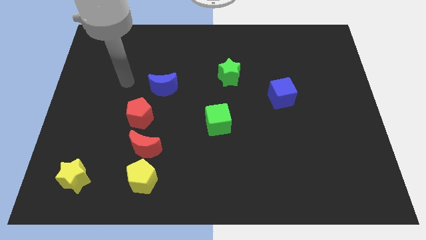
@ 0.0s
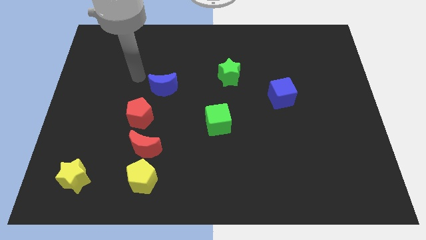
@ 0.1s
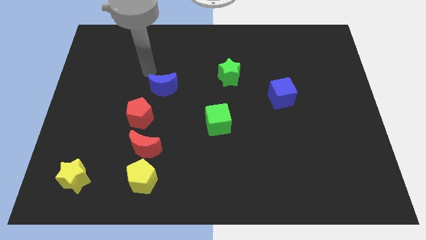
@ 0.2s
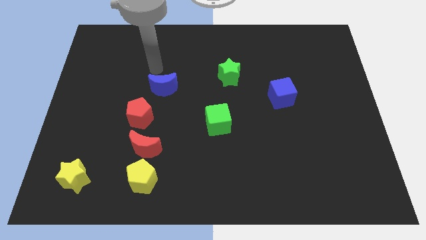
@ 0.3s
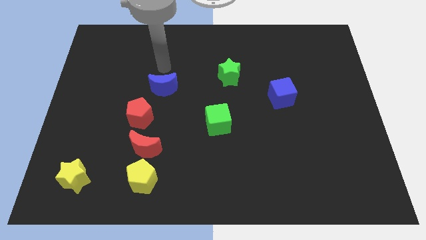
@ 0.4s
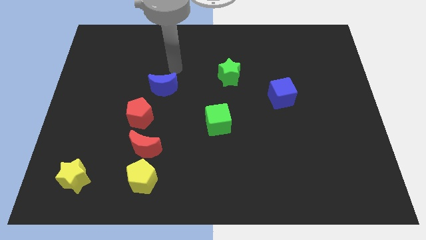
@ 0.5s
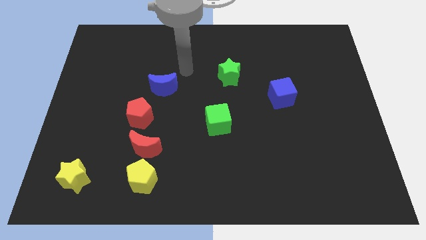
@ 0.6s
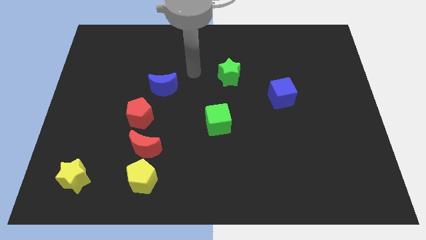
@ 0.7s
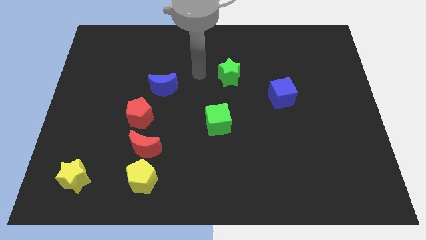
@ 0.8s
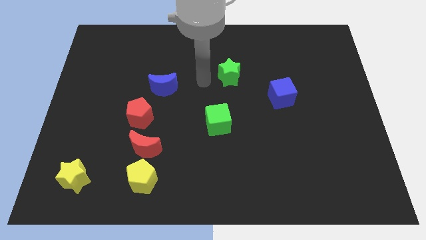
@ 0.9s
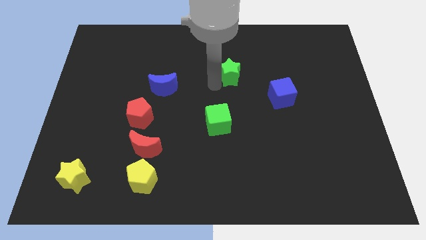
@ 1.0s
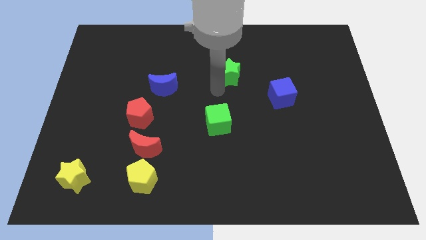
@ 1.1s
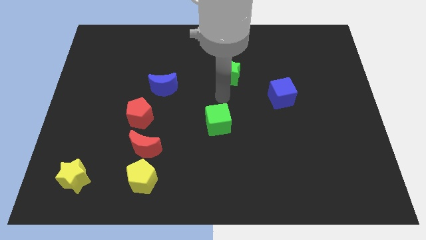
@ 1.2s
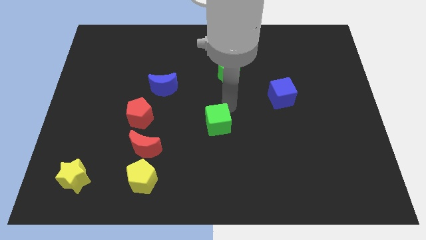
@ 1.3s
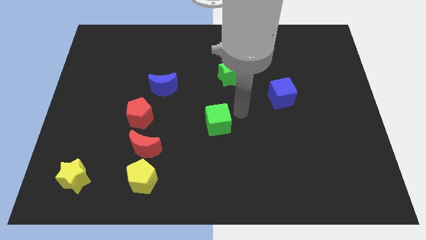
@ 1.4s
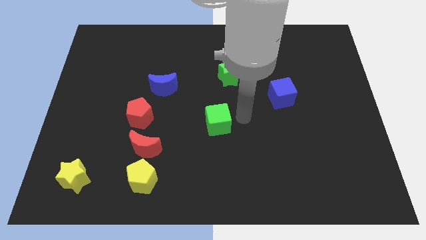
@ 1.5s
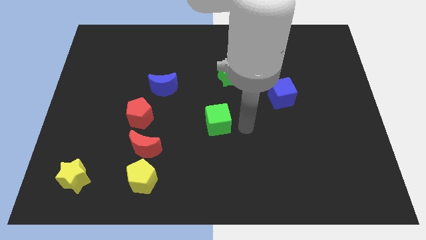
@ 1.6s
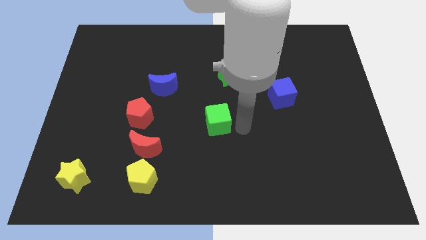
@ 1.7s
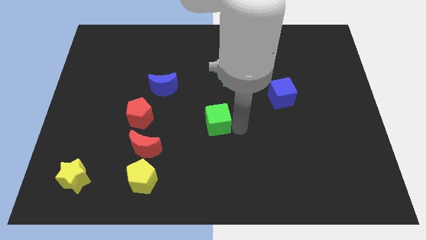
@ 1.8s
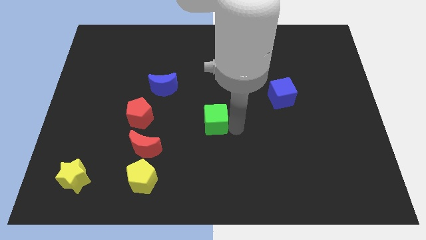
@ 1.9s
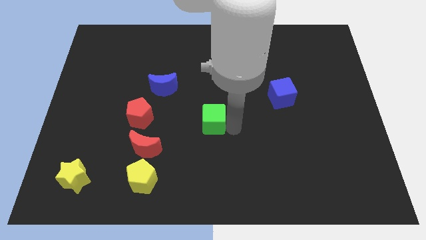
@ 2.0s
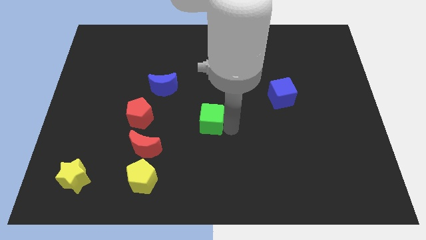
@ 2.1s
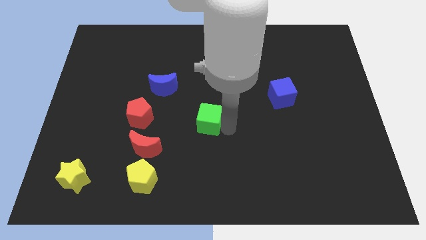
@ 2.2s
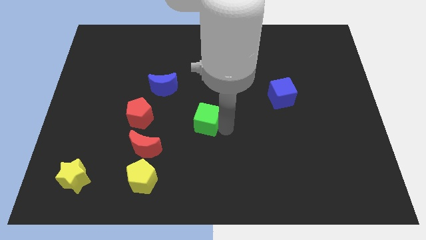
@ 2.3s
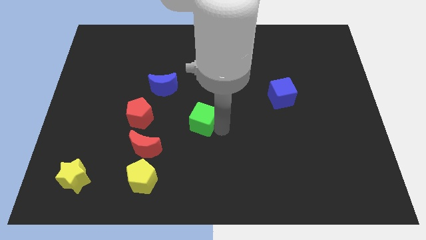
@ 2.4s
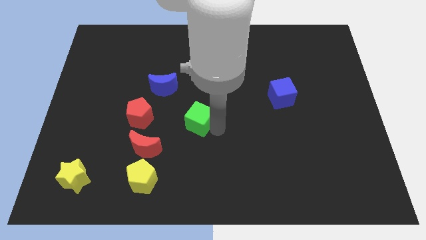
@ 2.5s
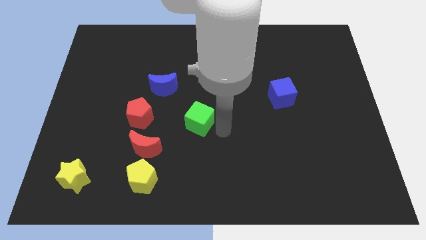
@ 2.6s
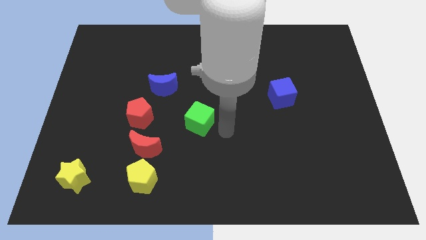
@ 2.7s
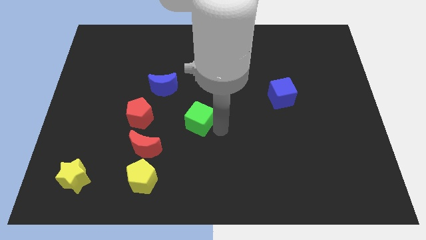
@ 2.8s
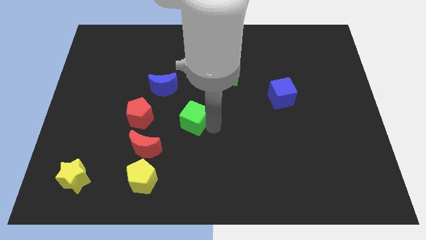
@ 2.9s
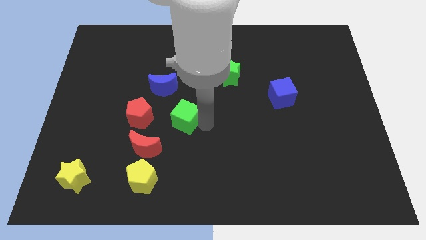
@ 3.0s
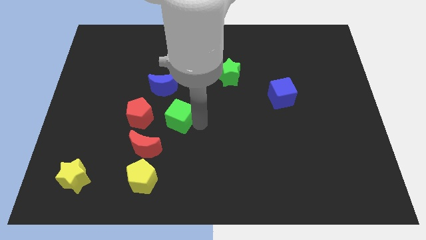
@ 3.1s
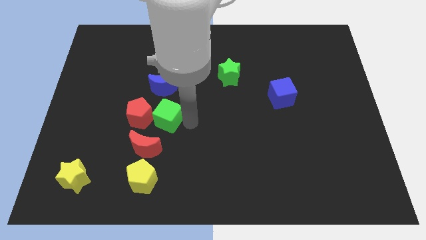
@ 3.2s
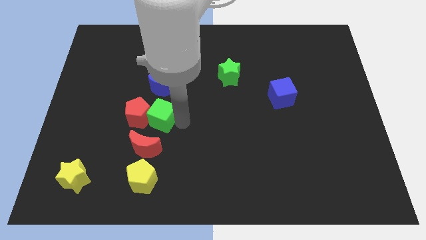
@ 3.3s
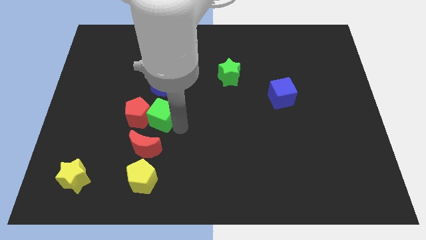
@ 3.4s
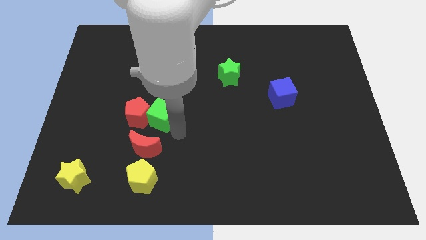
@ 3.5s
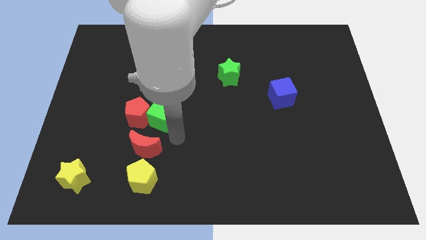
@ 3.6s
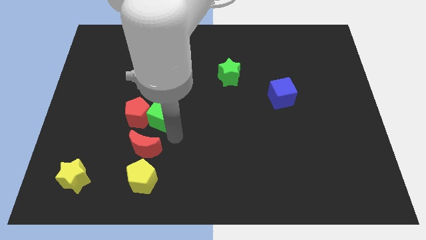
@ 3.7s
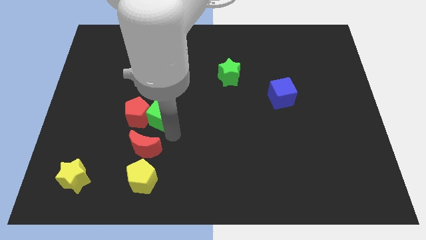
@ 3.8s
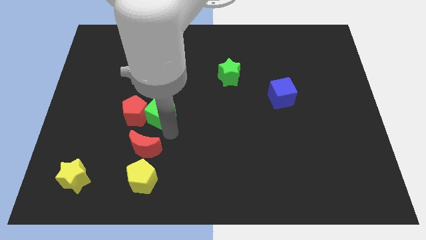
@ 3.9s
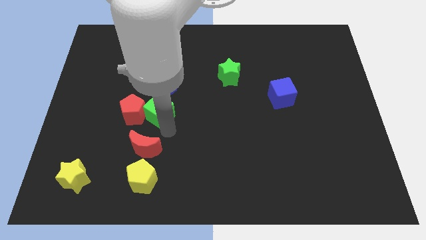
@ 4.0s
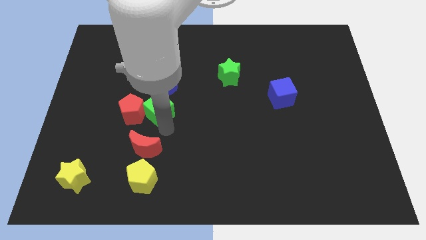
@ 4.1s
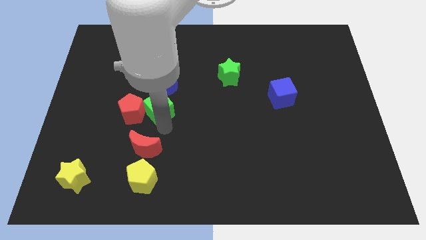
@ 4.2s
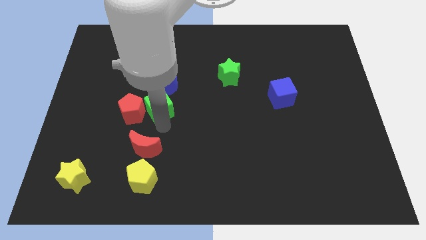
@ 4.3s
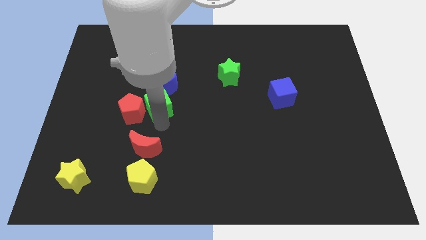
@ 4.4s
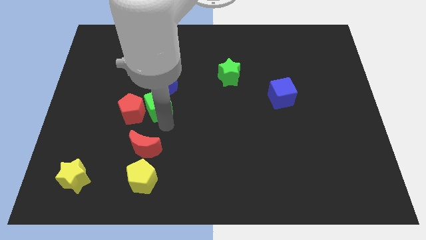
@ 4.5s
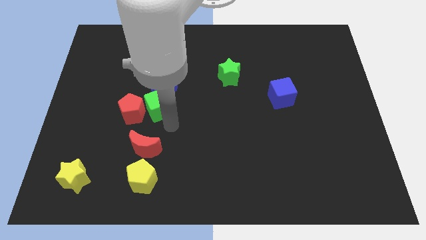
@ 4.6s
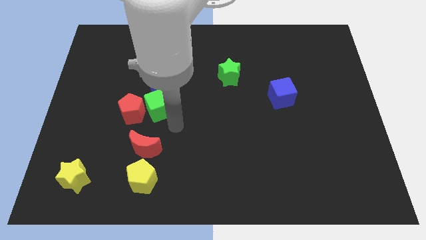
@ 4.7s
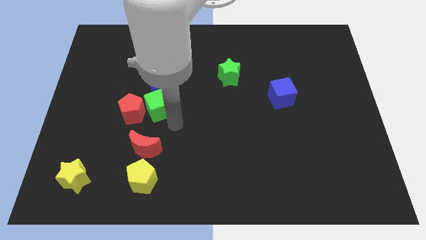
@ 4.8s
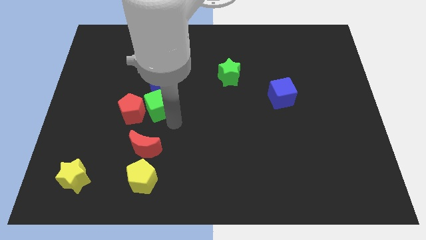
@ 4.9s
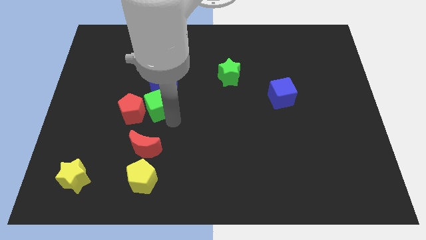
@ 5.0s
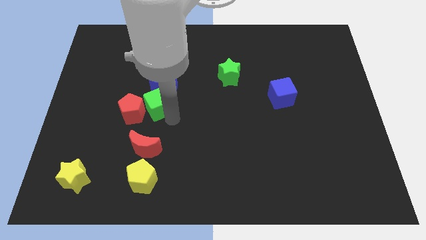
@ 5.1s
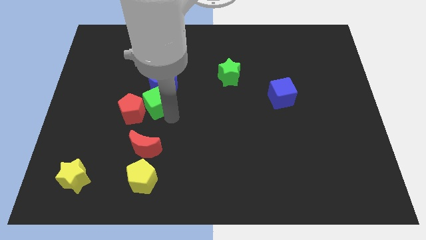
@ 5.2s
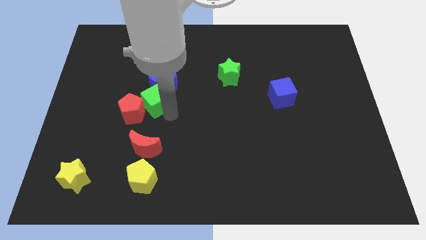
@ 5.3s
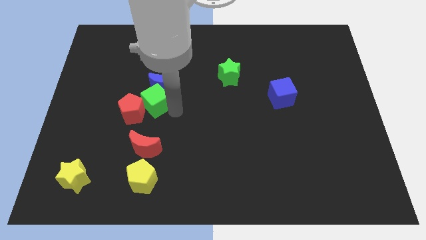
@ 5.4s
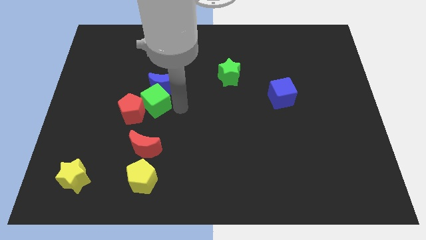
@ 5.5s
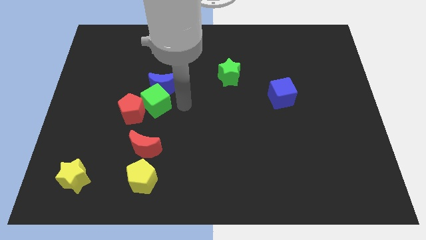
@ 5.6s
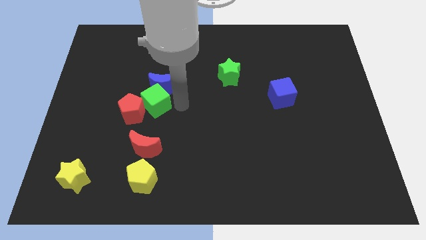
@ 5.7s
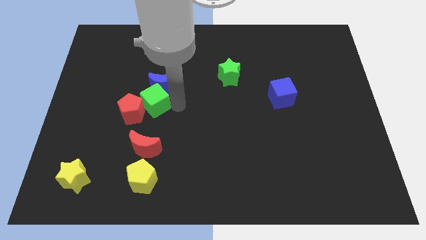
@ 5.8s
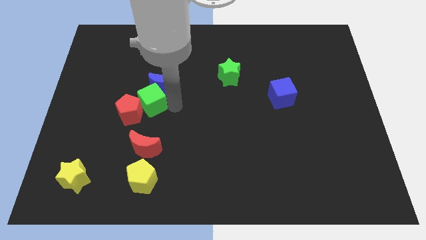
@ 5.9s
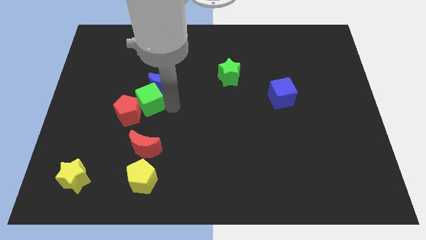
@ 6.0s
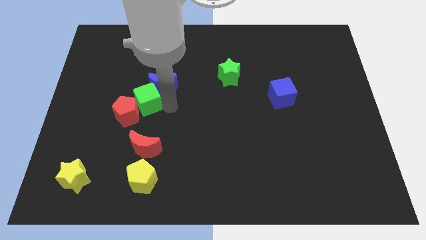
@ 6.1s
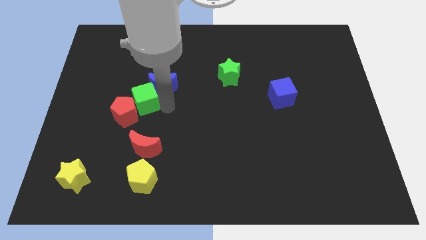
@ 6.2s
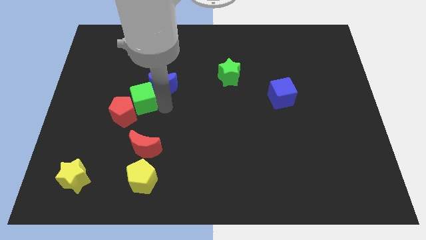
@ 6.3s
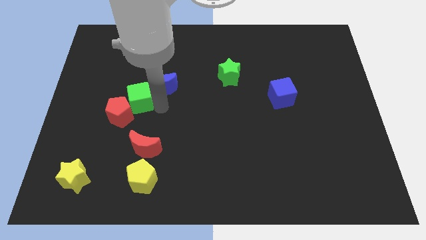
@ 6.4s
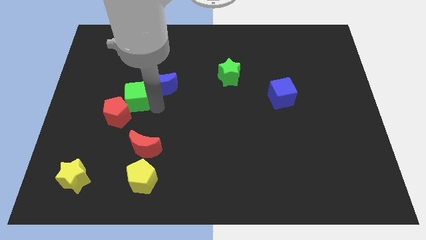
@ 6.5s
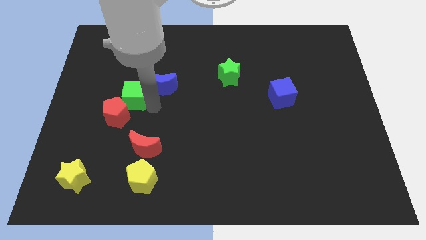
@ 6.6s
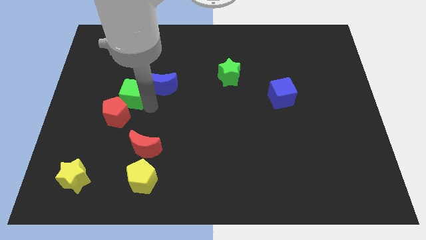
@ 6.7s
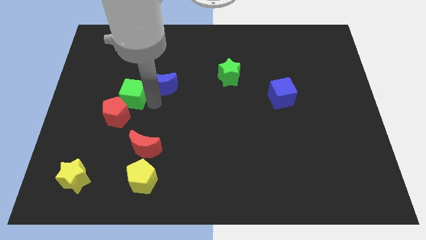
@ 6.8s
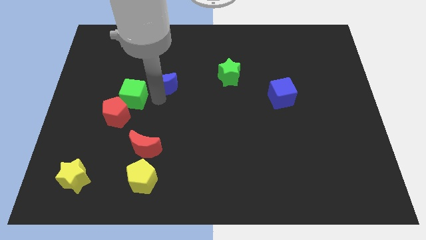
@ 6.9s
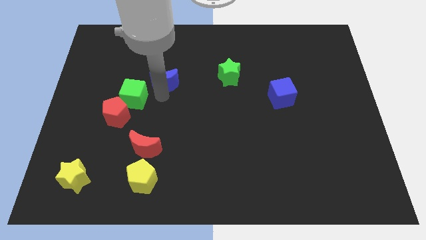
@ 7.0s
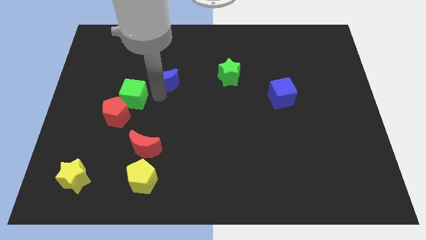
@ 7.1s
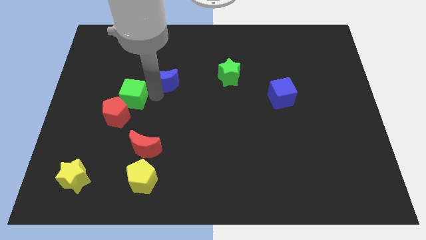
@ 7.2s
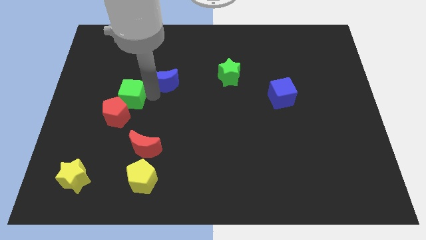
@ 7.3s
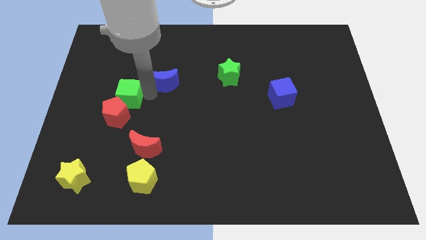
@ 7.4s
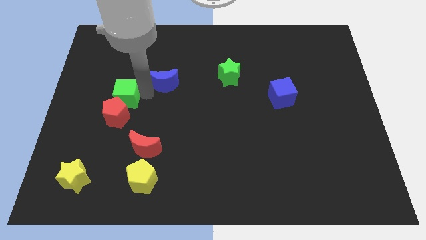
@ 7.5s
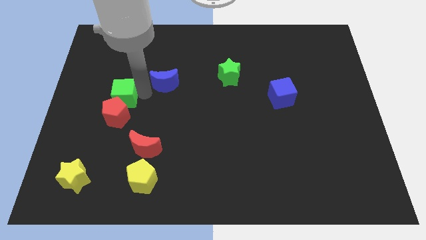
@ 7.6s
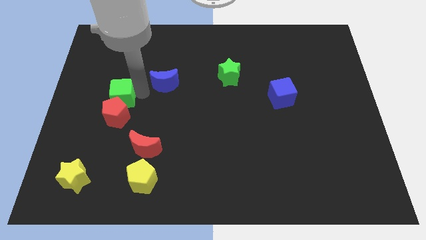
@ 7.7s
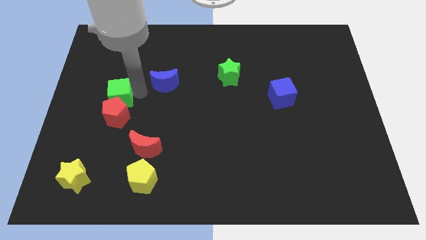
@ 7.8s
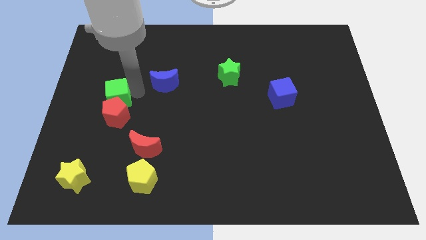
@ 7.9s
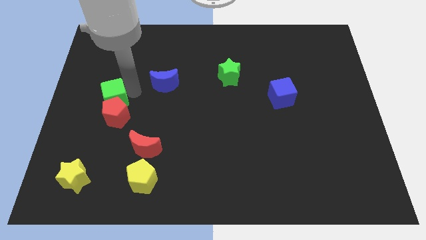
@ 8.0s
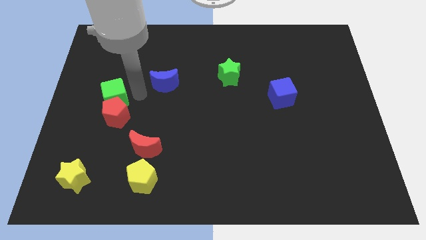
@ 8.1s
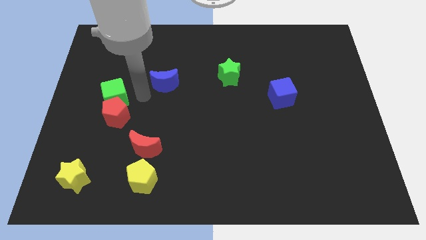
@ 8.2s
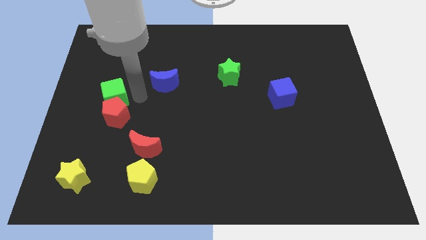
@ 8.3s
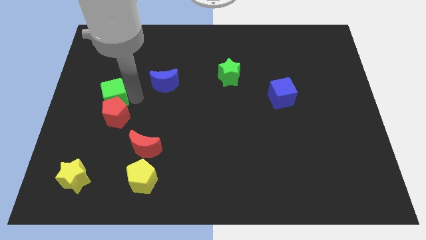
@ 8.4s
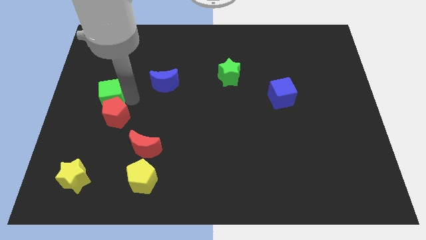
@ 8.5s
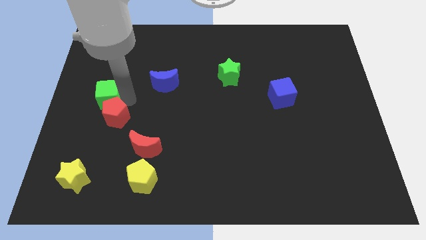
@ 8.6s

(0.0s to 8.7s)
move the green cube to the center left

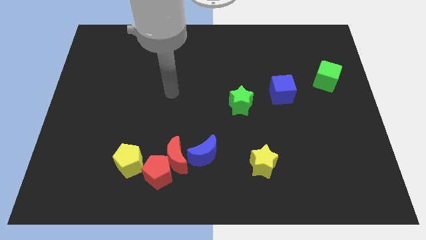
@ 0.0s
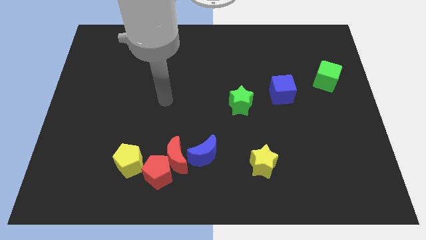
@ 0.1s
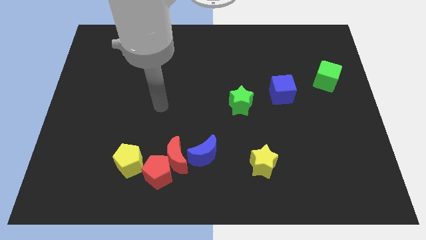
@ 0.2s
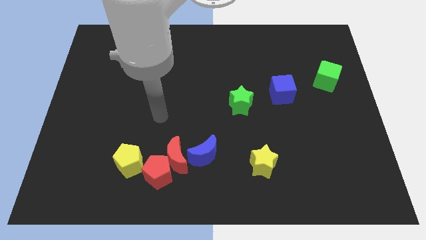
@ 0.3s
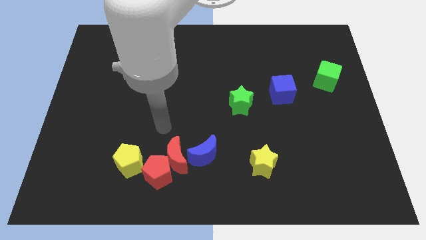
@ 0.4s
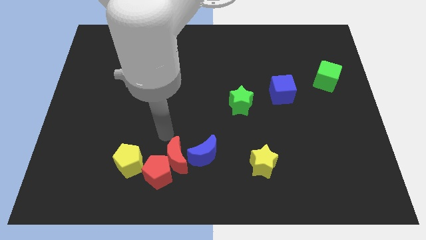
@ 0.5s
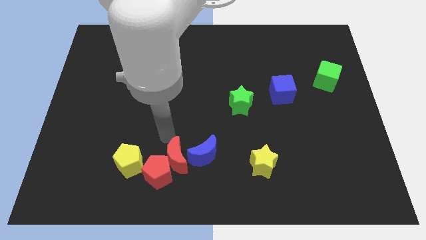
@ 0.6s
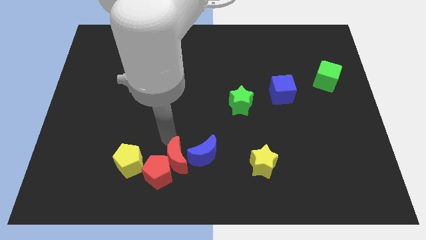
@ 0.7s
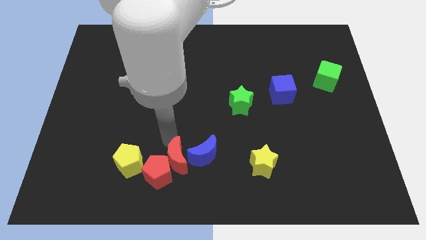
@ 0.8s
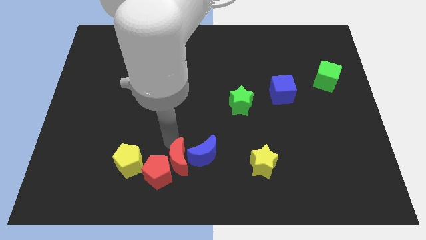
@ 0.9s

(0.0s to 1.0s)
push the red moon to the bottom side
